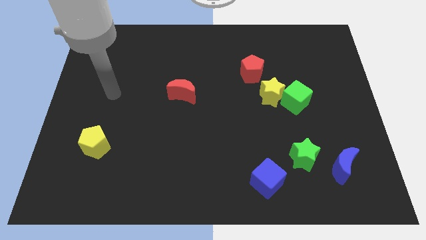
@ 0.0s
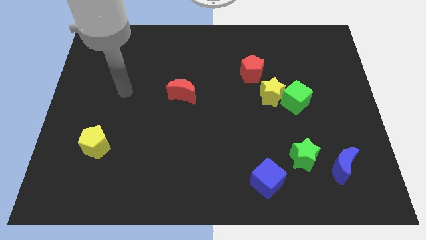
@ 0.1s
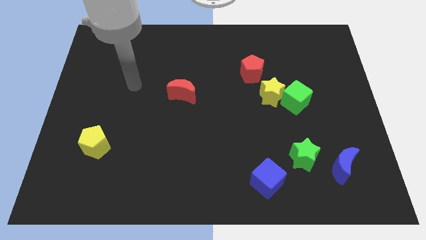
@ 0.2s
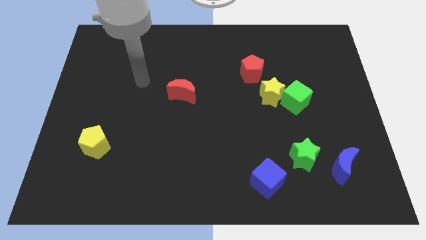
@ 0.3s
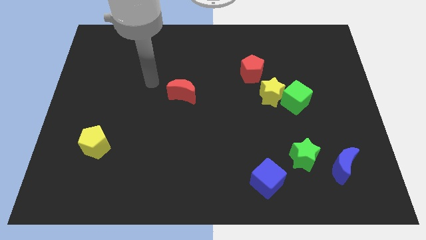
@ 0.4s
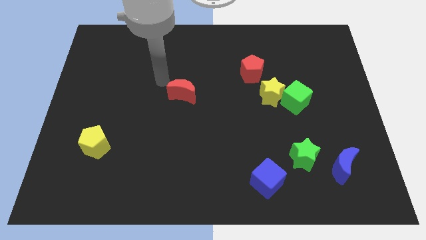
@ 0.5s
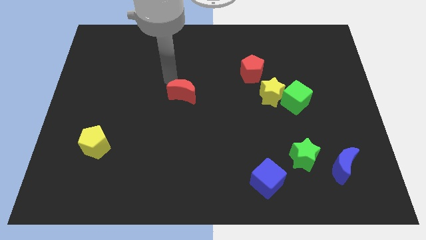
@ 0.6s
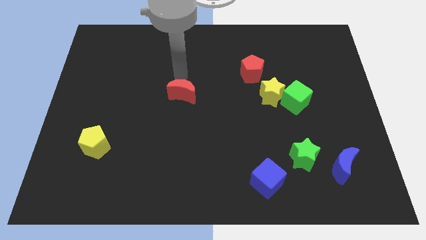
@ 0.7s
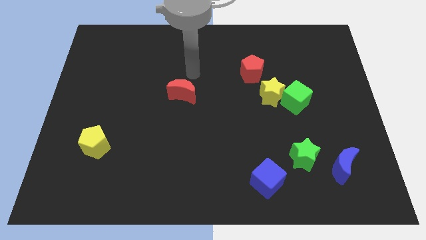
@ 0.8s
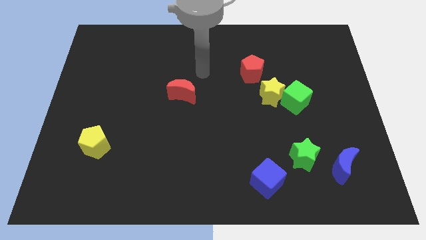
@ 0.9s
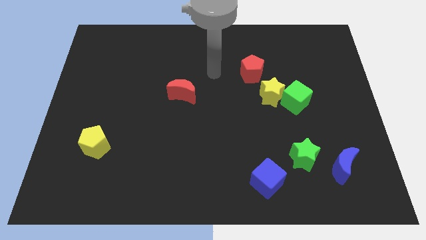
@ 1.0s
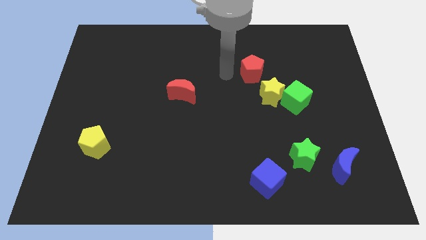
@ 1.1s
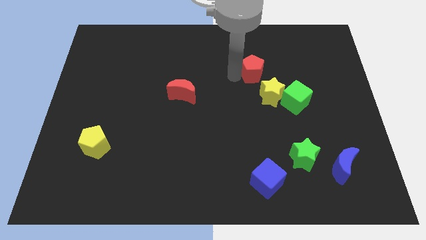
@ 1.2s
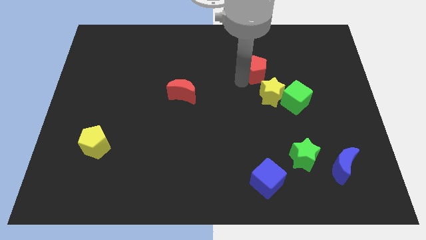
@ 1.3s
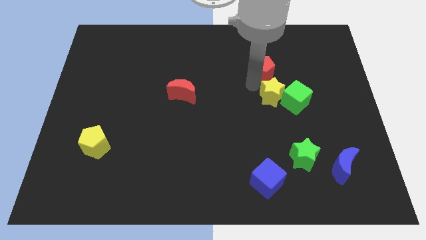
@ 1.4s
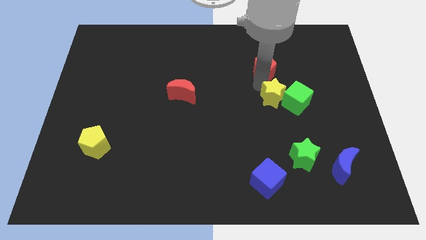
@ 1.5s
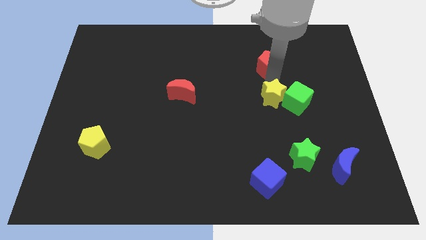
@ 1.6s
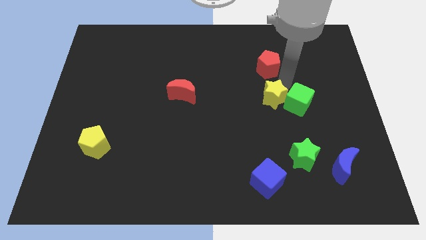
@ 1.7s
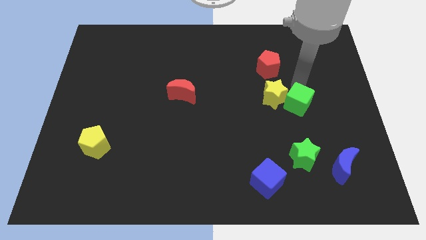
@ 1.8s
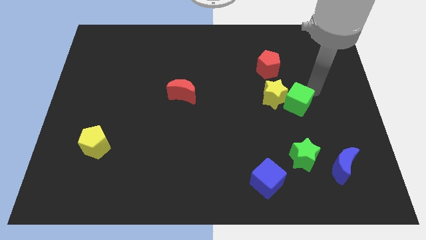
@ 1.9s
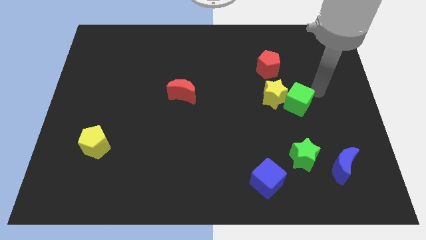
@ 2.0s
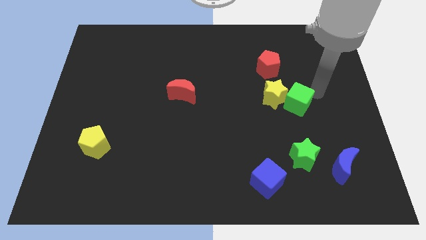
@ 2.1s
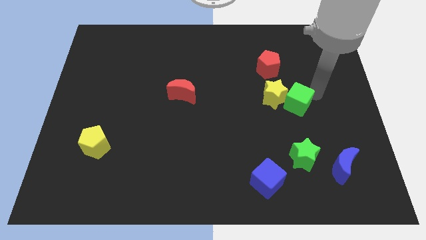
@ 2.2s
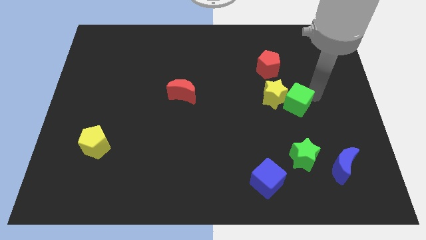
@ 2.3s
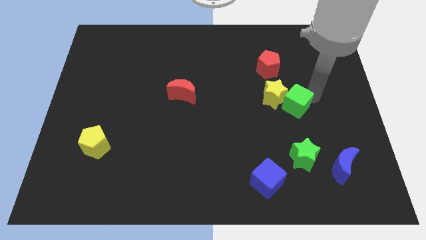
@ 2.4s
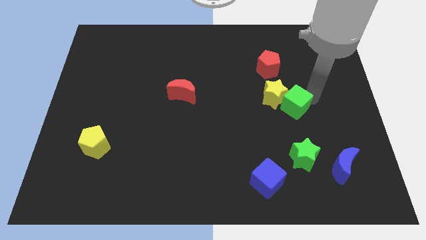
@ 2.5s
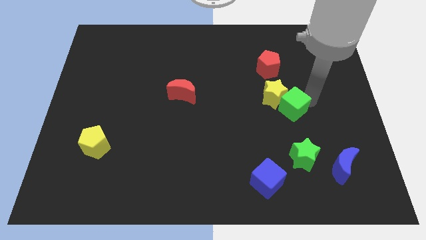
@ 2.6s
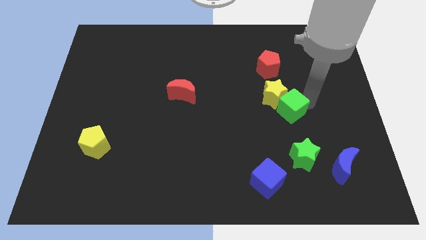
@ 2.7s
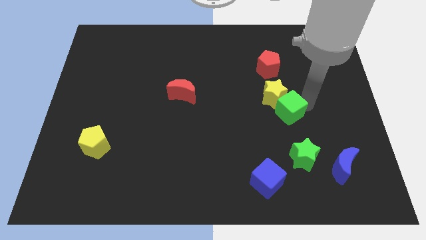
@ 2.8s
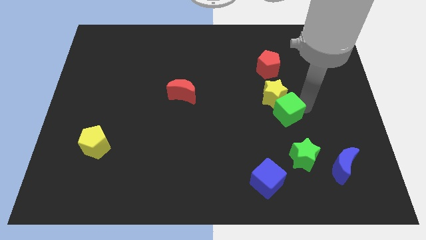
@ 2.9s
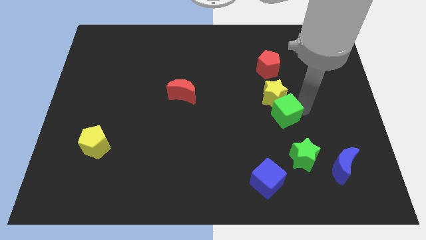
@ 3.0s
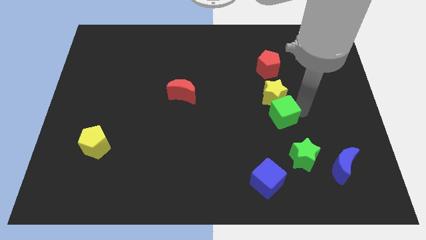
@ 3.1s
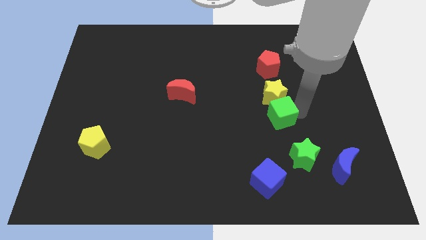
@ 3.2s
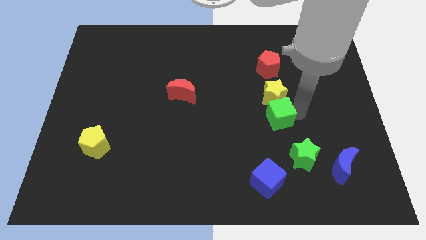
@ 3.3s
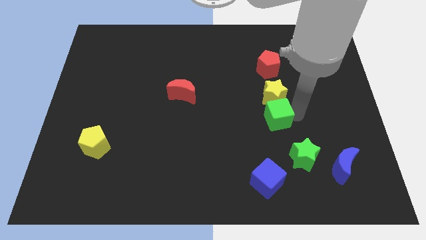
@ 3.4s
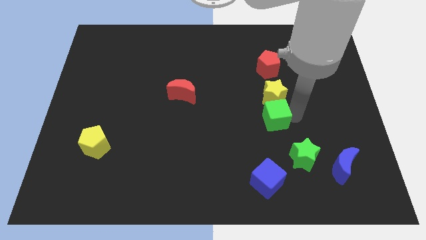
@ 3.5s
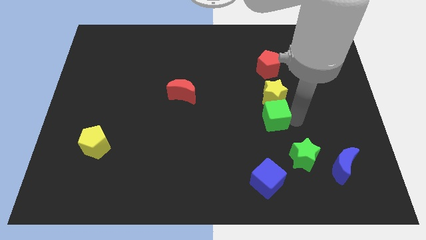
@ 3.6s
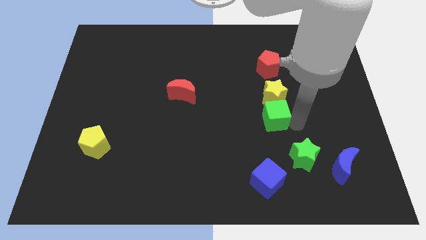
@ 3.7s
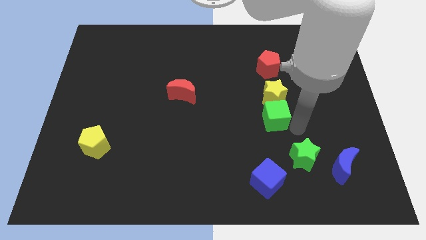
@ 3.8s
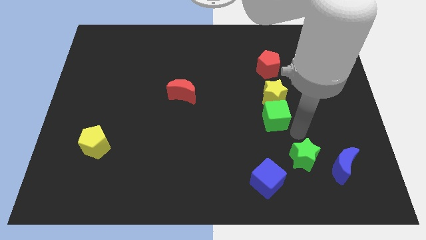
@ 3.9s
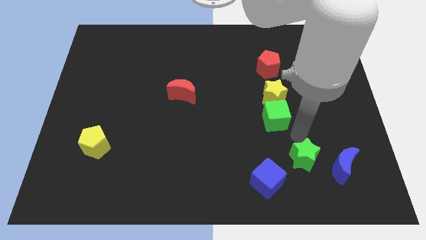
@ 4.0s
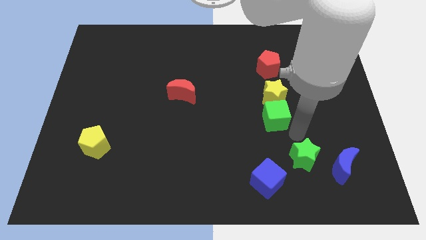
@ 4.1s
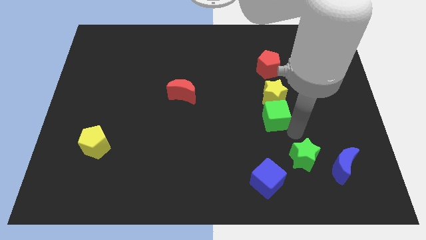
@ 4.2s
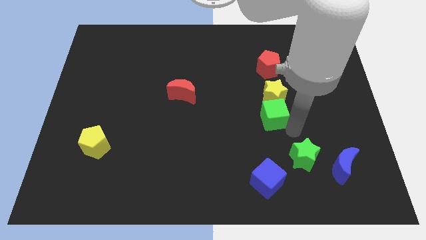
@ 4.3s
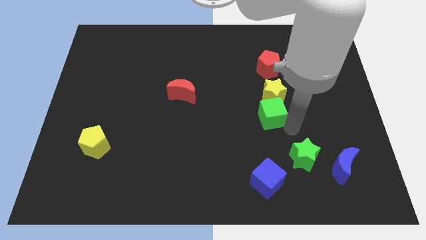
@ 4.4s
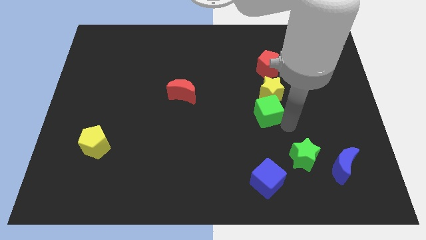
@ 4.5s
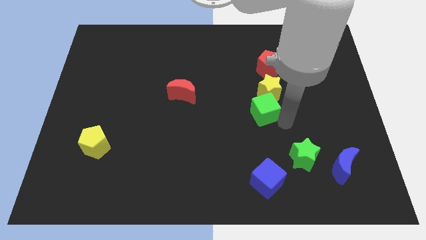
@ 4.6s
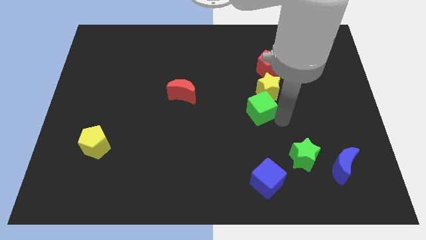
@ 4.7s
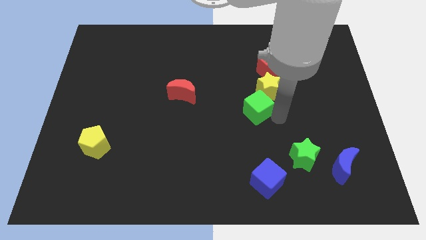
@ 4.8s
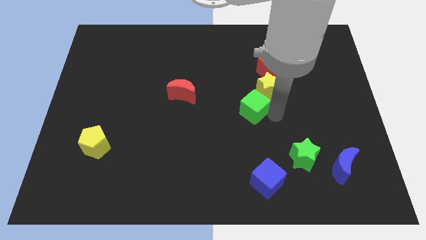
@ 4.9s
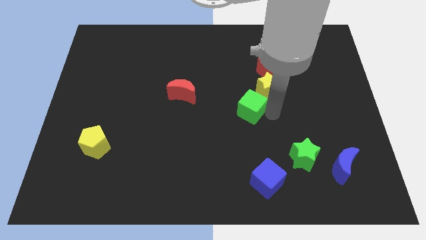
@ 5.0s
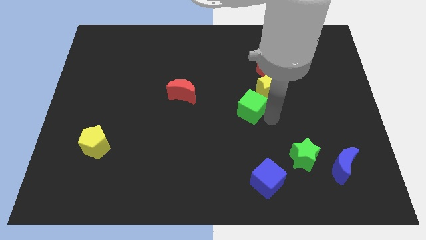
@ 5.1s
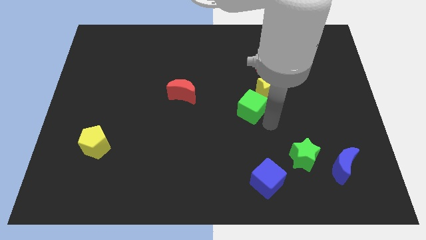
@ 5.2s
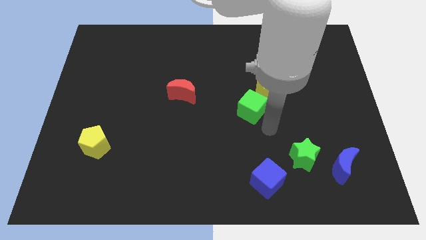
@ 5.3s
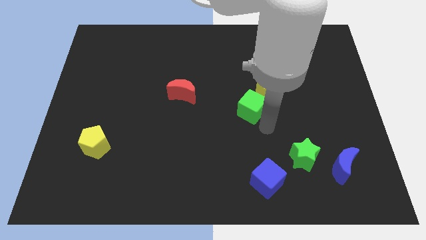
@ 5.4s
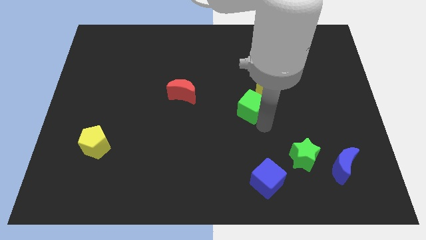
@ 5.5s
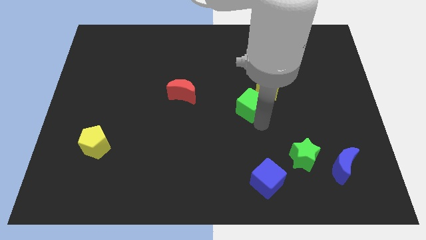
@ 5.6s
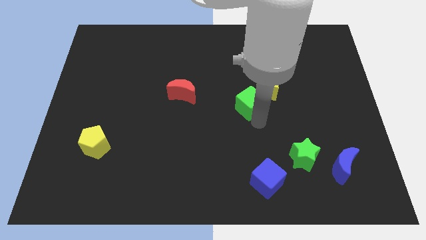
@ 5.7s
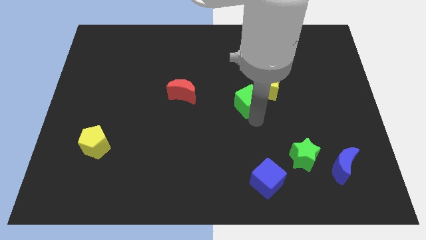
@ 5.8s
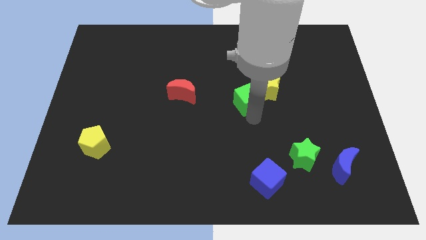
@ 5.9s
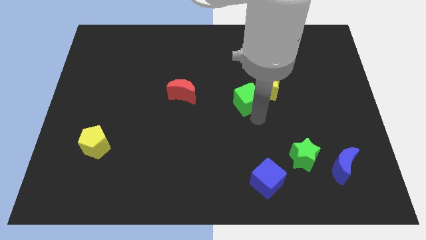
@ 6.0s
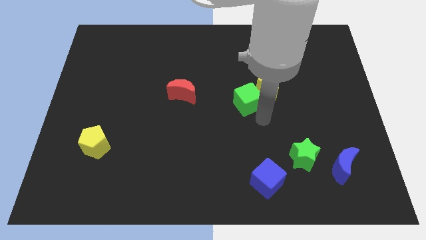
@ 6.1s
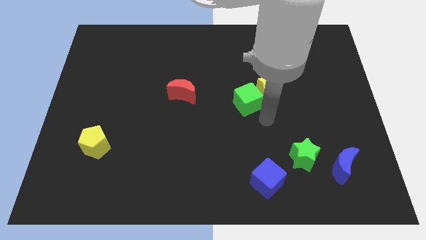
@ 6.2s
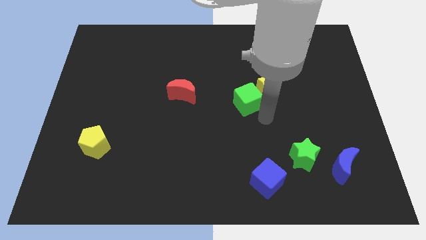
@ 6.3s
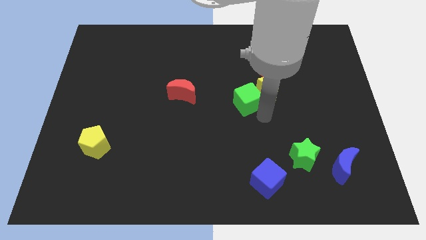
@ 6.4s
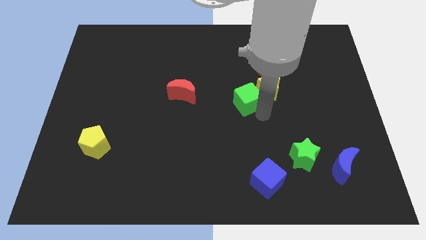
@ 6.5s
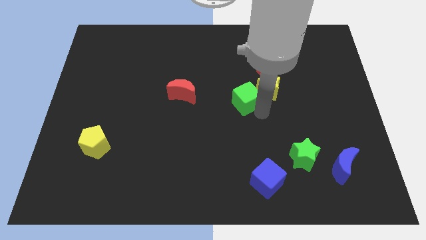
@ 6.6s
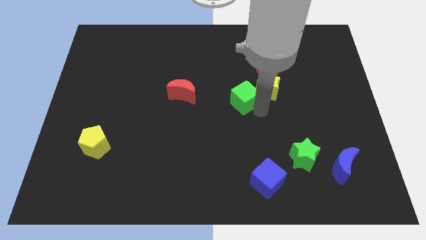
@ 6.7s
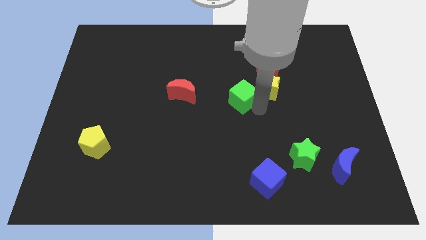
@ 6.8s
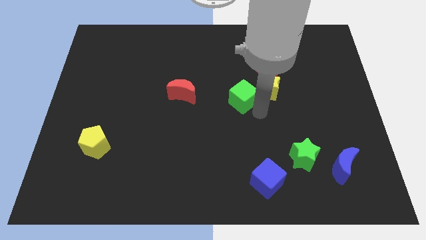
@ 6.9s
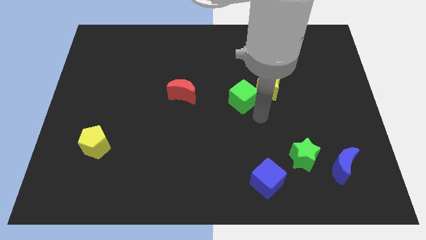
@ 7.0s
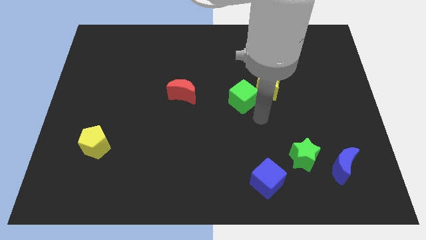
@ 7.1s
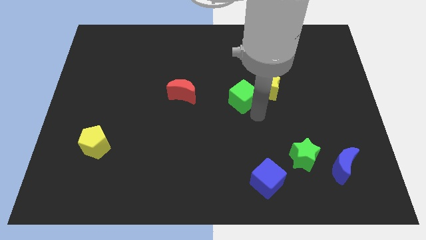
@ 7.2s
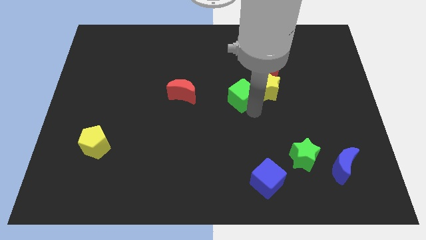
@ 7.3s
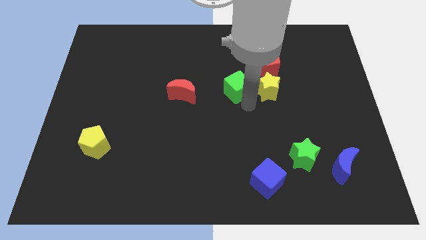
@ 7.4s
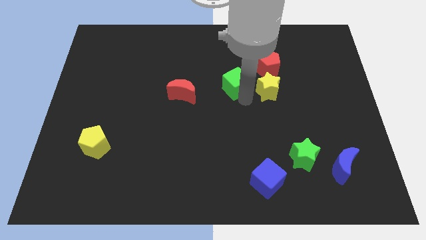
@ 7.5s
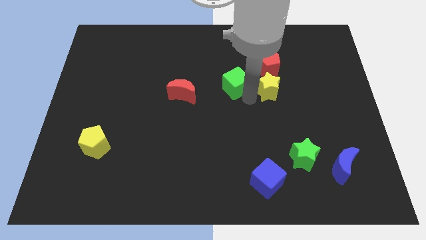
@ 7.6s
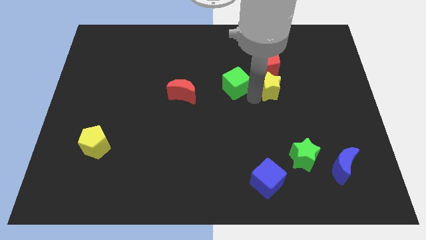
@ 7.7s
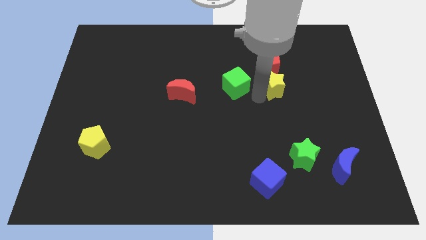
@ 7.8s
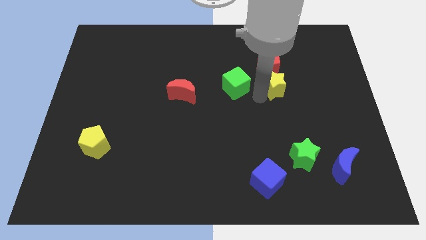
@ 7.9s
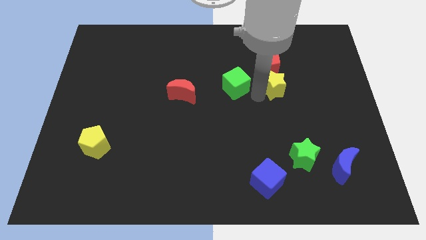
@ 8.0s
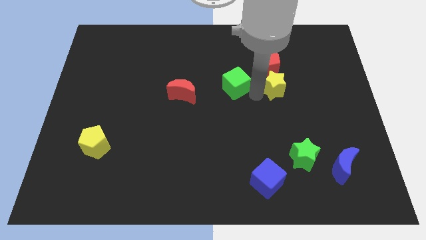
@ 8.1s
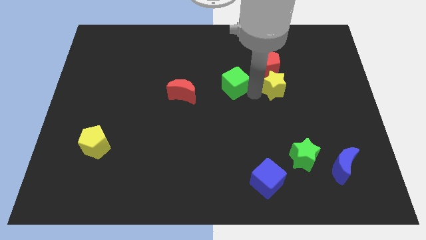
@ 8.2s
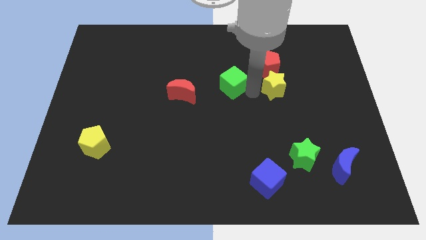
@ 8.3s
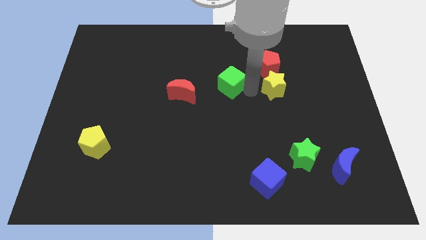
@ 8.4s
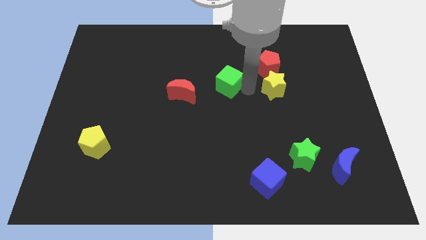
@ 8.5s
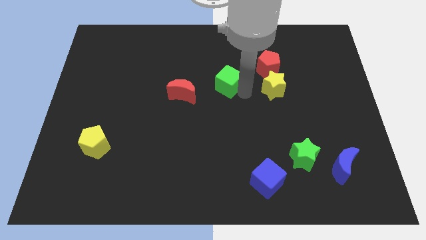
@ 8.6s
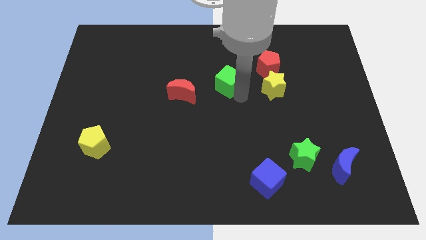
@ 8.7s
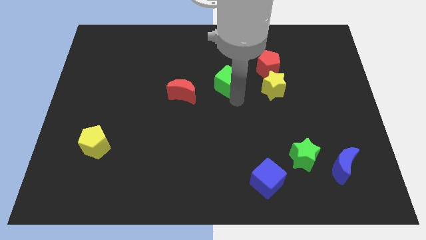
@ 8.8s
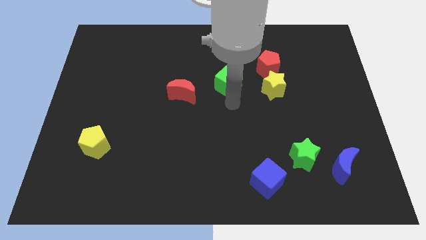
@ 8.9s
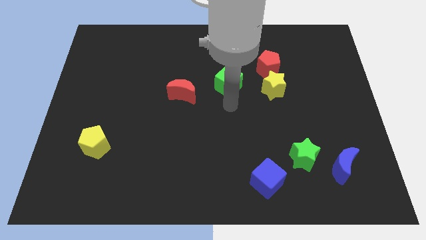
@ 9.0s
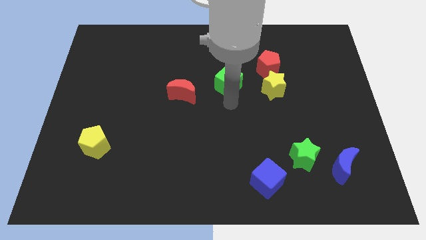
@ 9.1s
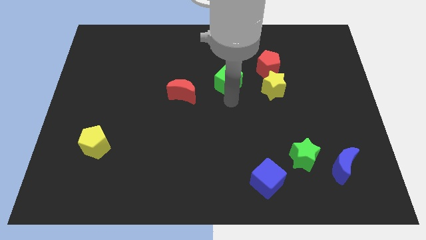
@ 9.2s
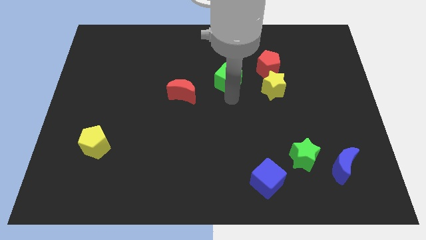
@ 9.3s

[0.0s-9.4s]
slide the green cube left of the red pentagon
